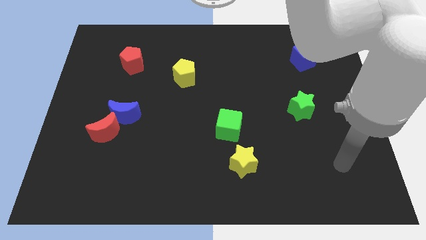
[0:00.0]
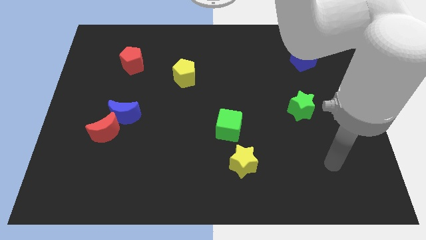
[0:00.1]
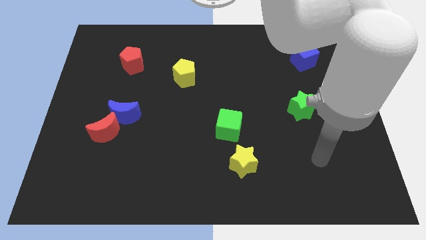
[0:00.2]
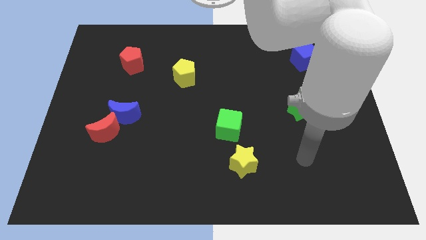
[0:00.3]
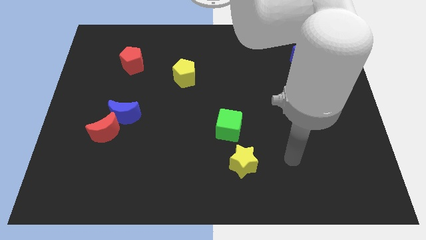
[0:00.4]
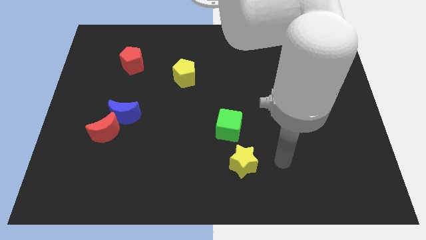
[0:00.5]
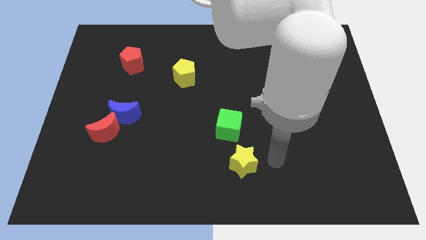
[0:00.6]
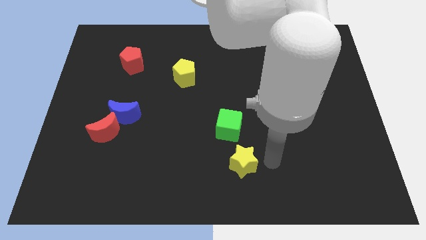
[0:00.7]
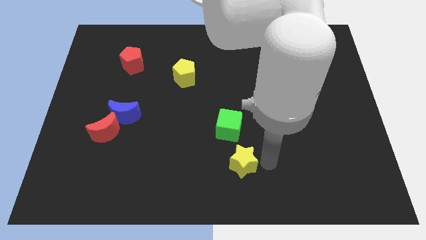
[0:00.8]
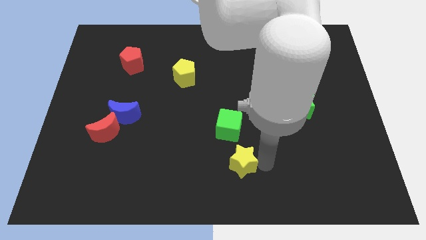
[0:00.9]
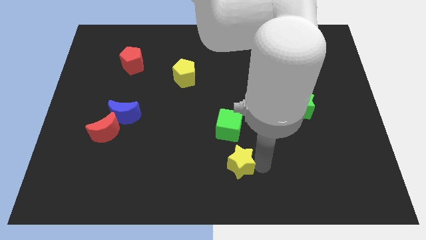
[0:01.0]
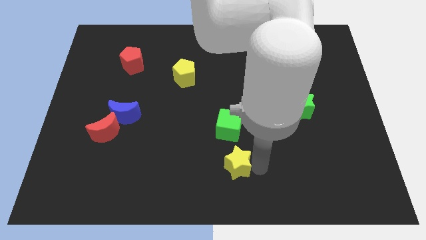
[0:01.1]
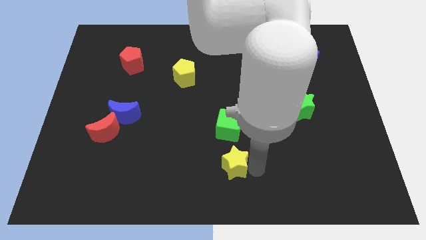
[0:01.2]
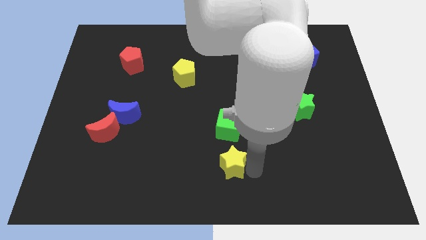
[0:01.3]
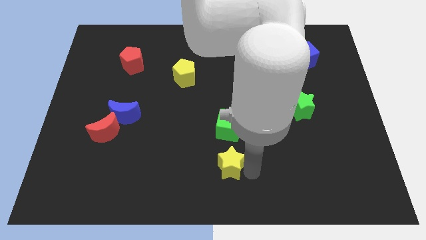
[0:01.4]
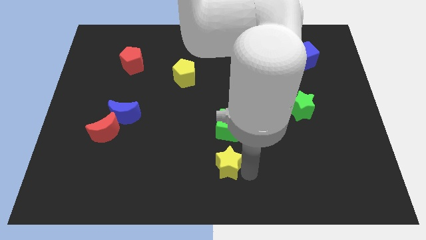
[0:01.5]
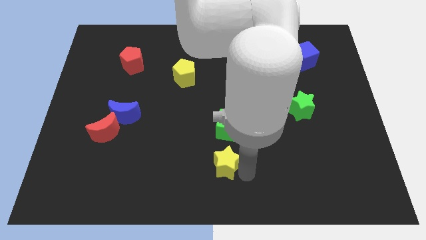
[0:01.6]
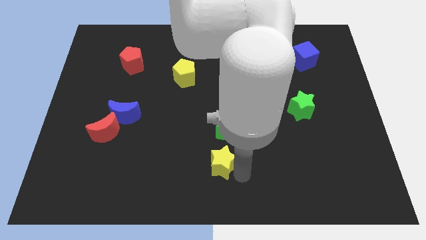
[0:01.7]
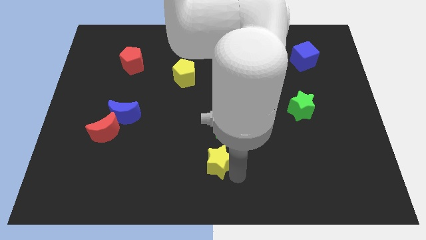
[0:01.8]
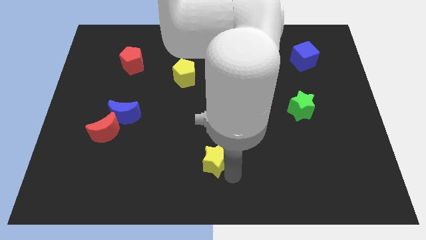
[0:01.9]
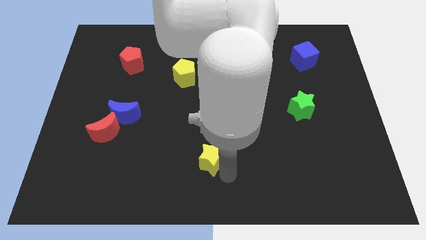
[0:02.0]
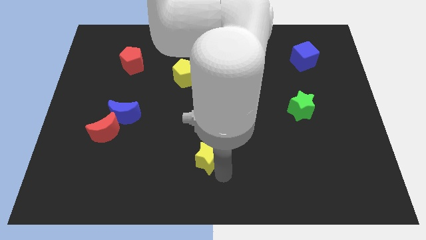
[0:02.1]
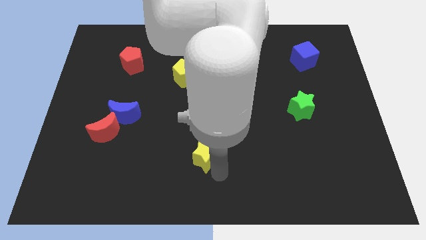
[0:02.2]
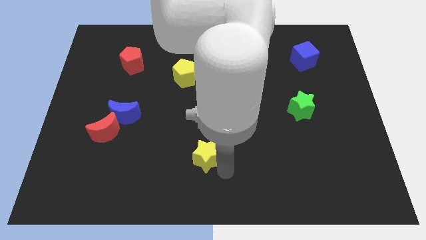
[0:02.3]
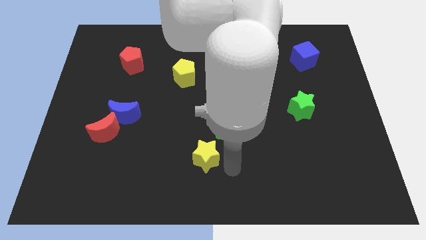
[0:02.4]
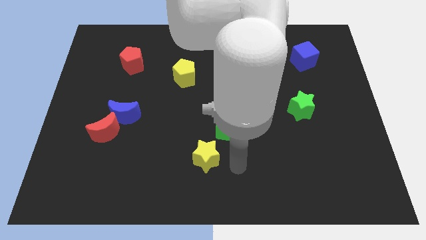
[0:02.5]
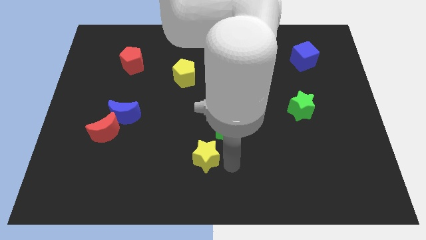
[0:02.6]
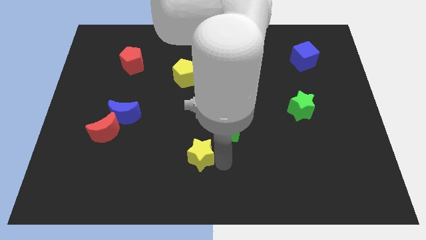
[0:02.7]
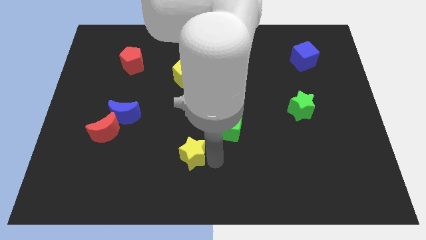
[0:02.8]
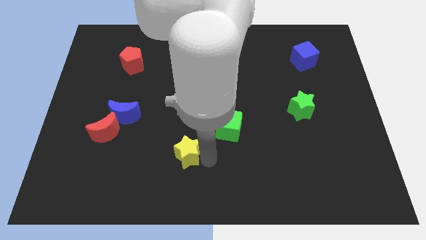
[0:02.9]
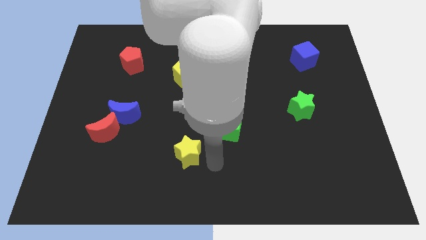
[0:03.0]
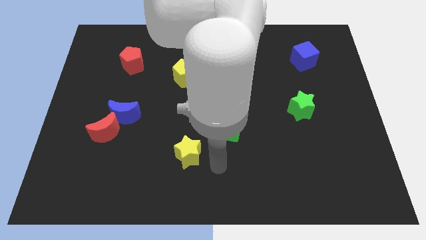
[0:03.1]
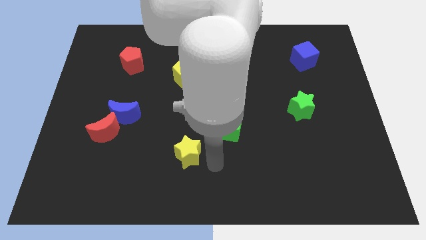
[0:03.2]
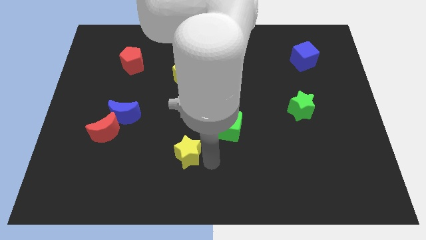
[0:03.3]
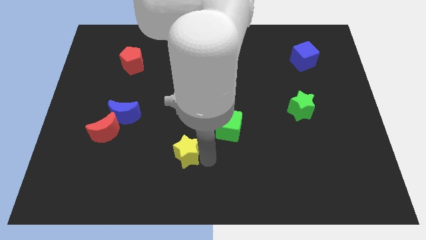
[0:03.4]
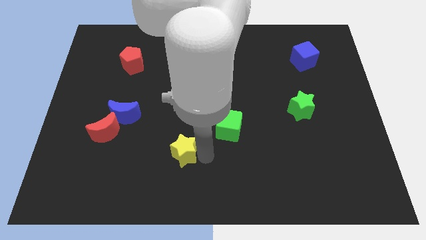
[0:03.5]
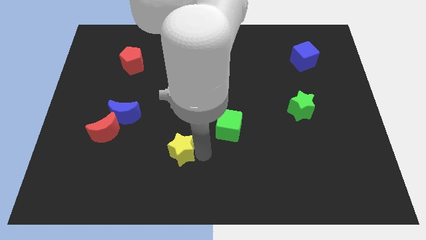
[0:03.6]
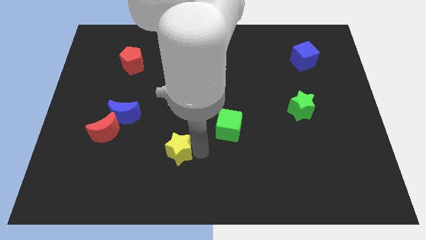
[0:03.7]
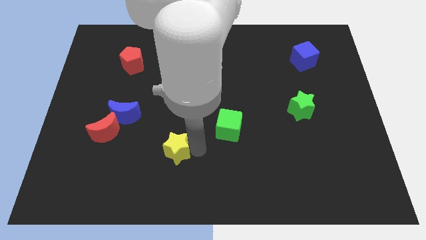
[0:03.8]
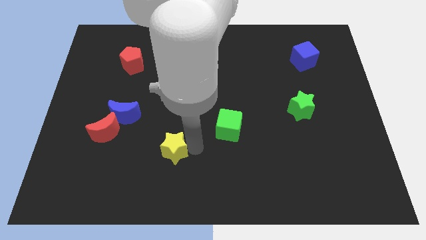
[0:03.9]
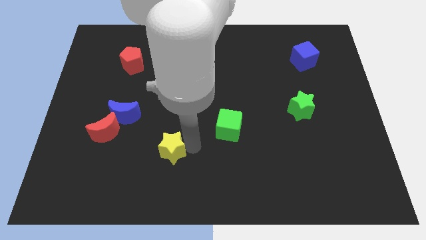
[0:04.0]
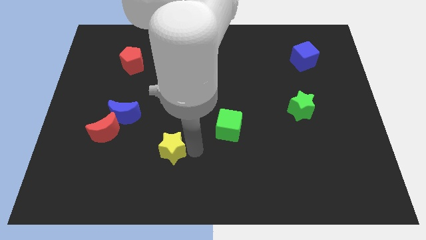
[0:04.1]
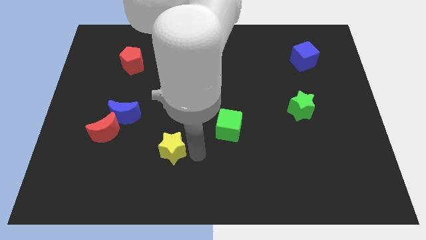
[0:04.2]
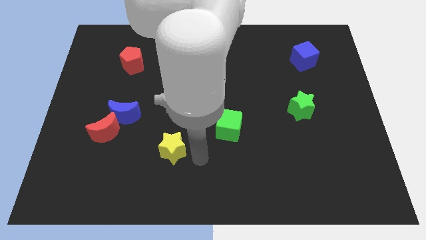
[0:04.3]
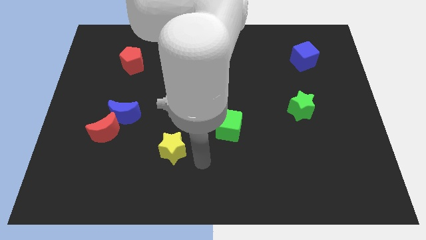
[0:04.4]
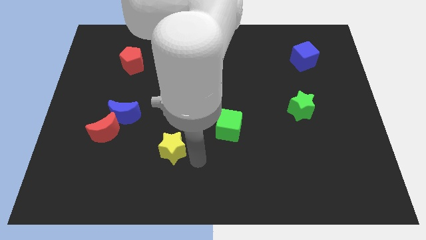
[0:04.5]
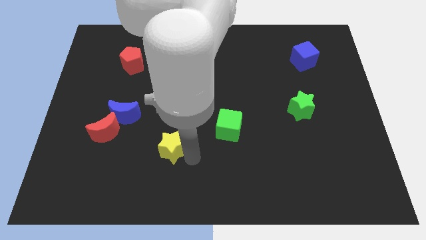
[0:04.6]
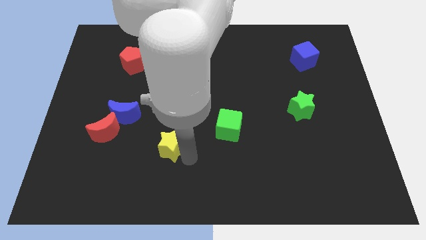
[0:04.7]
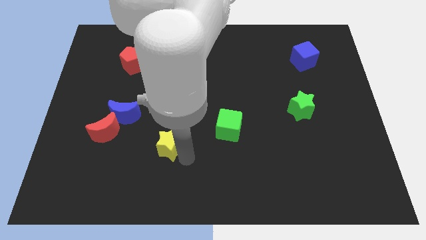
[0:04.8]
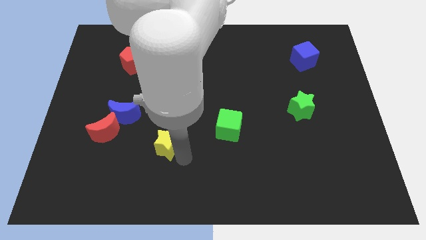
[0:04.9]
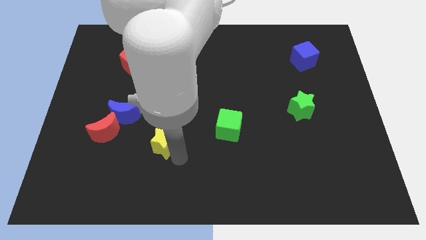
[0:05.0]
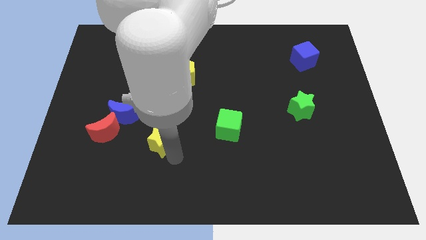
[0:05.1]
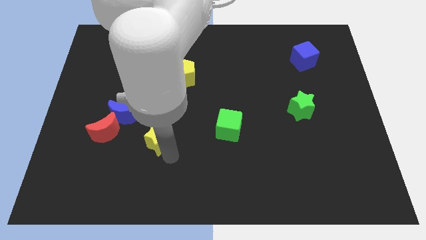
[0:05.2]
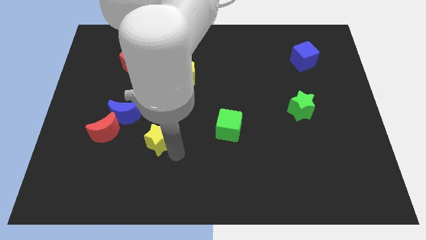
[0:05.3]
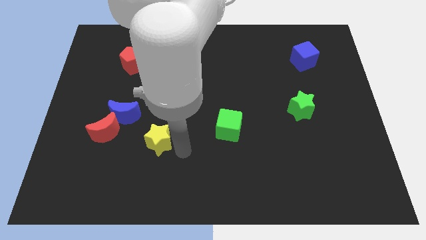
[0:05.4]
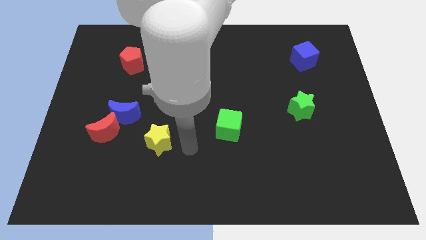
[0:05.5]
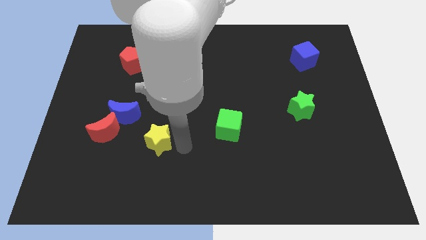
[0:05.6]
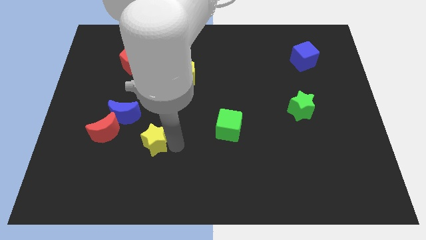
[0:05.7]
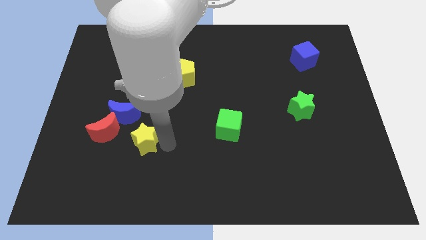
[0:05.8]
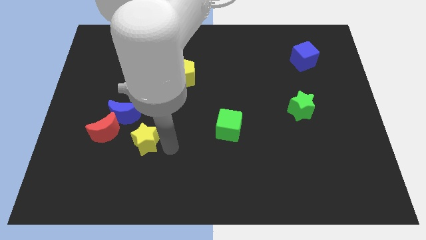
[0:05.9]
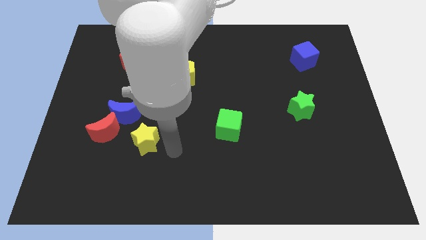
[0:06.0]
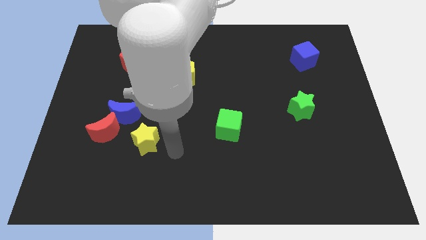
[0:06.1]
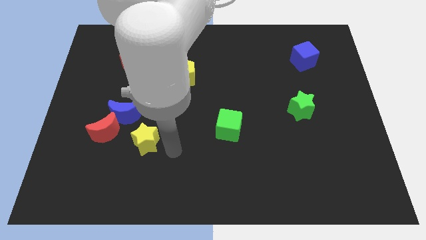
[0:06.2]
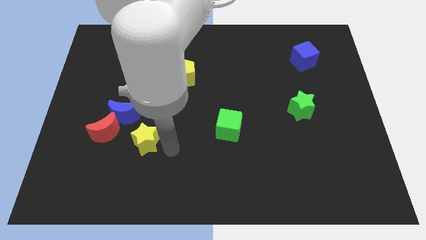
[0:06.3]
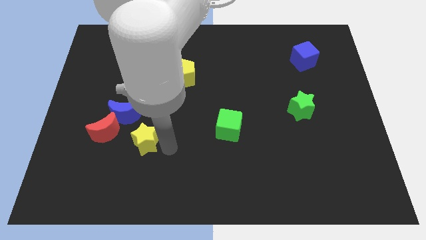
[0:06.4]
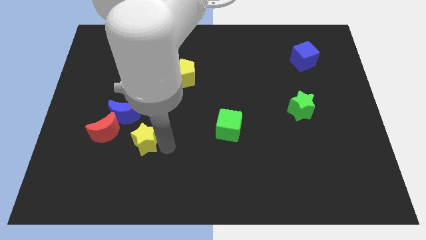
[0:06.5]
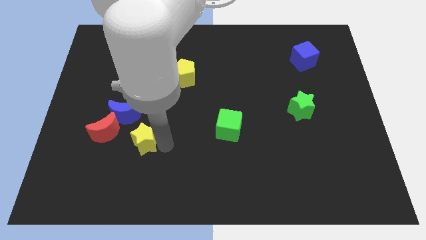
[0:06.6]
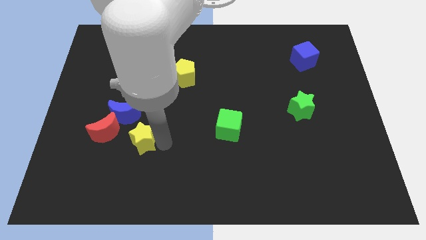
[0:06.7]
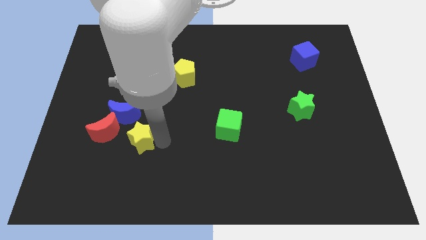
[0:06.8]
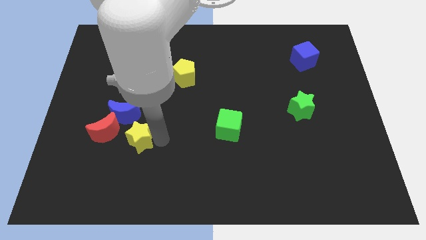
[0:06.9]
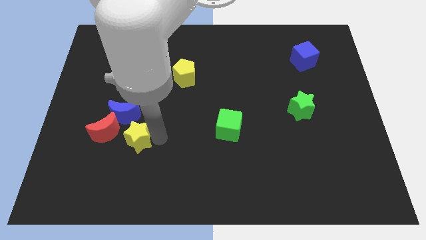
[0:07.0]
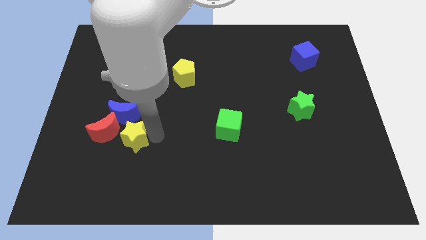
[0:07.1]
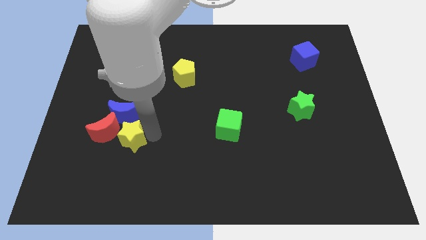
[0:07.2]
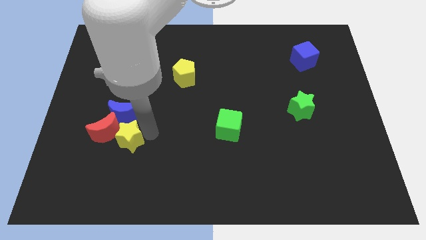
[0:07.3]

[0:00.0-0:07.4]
put the yellow star next to the red moon

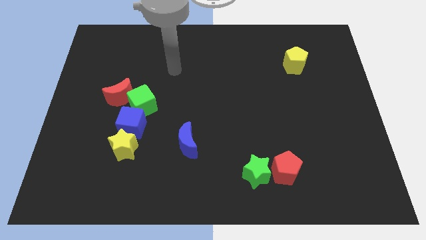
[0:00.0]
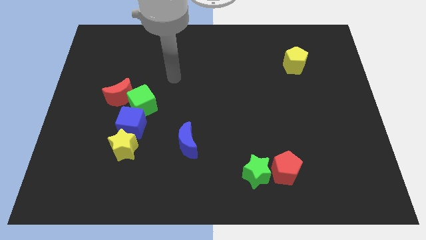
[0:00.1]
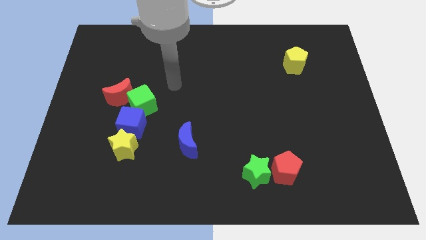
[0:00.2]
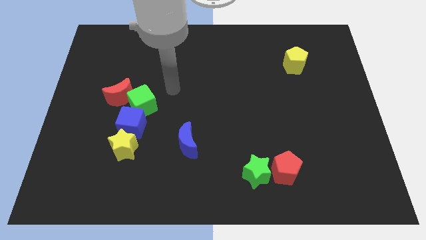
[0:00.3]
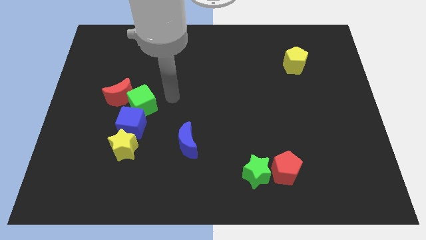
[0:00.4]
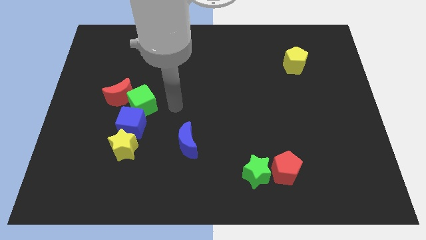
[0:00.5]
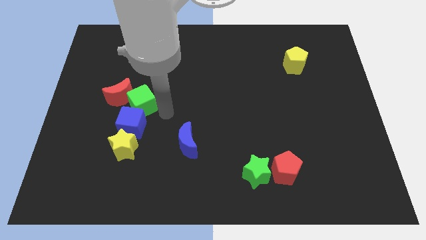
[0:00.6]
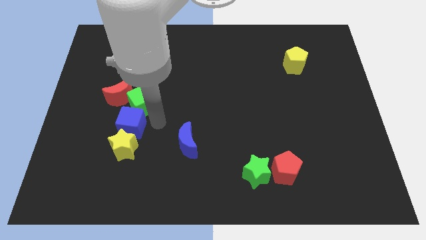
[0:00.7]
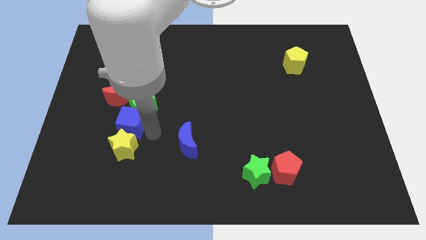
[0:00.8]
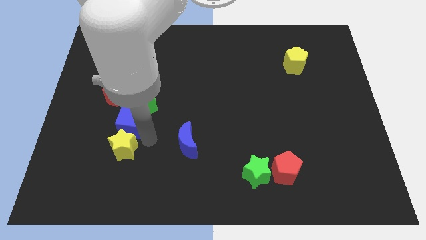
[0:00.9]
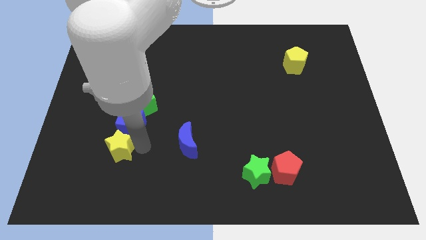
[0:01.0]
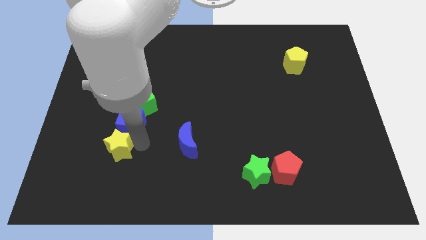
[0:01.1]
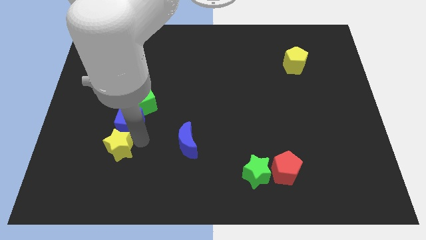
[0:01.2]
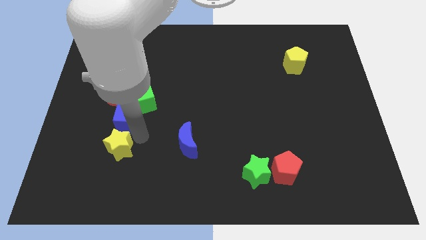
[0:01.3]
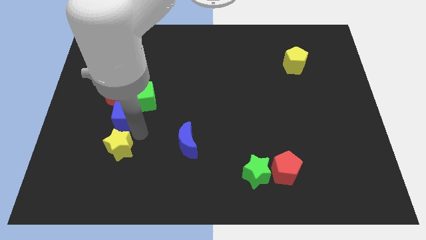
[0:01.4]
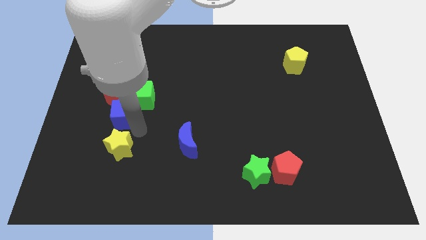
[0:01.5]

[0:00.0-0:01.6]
put the blue cube towards the red moon
